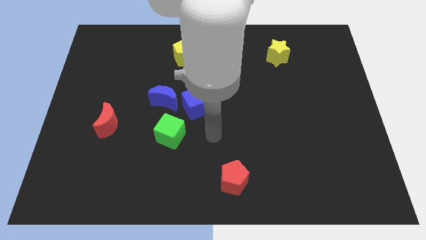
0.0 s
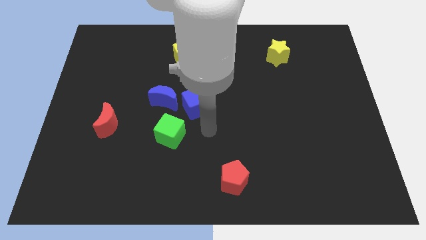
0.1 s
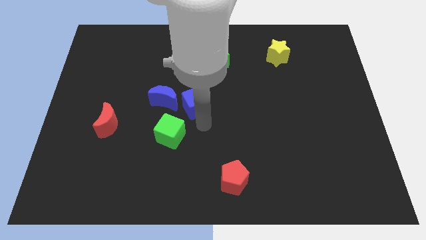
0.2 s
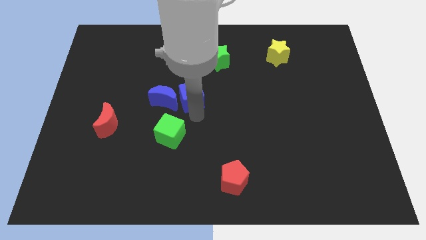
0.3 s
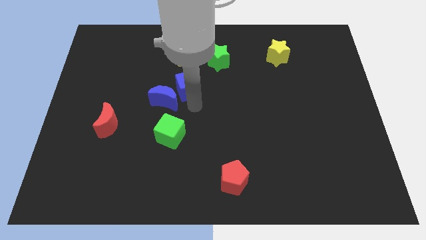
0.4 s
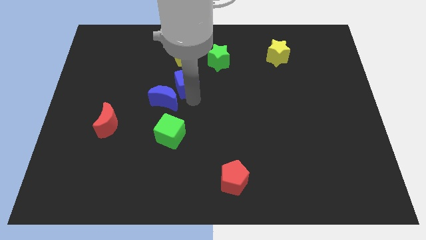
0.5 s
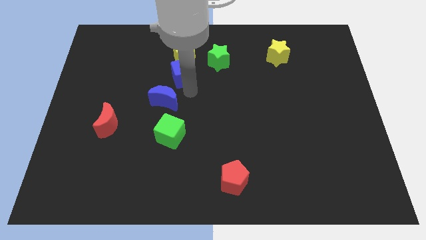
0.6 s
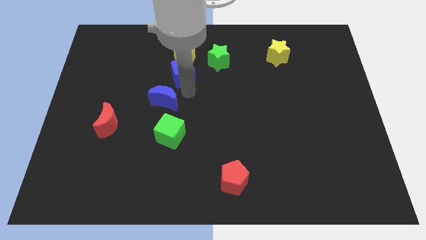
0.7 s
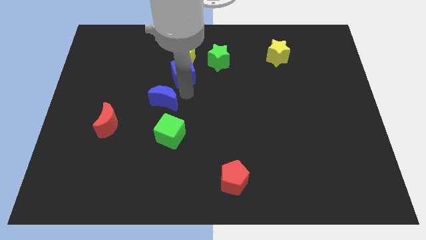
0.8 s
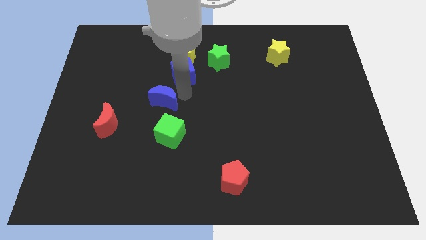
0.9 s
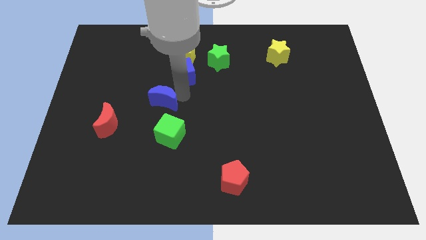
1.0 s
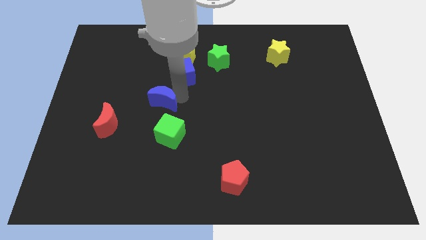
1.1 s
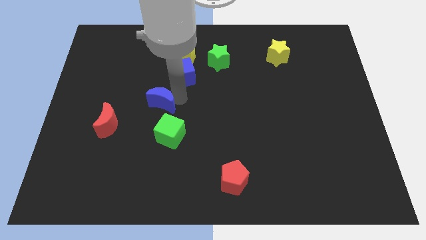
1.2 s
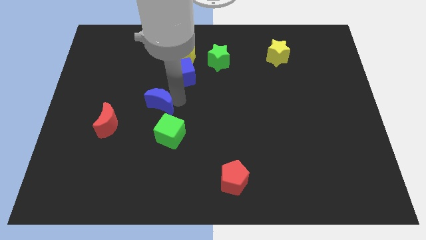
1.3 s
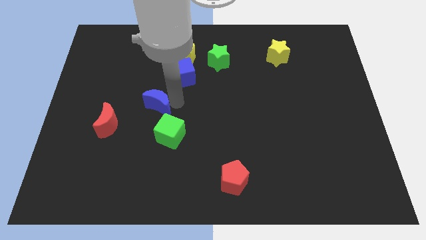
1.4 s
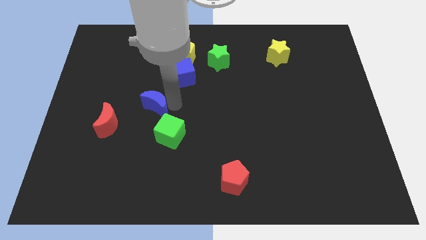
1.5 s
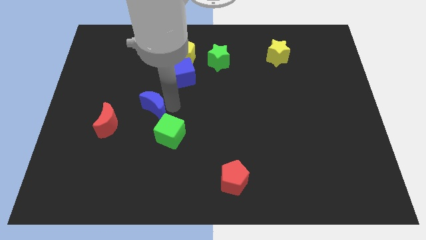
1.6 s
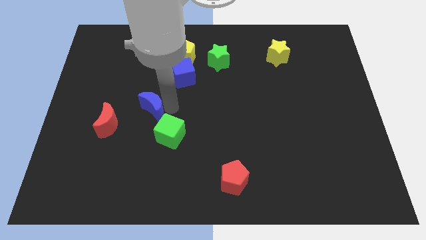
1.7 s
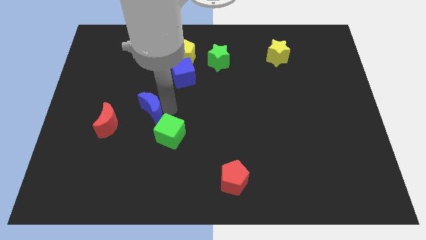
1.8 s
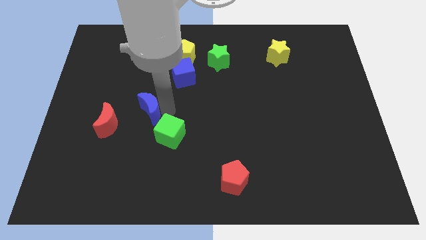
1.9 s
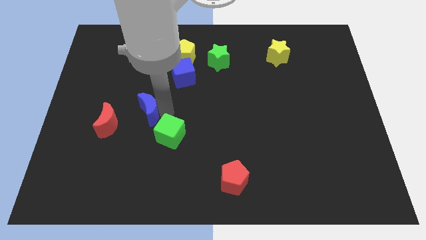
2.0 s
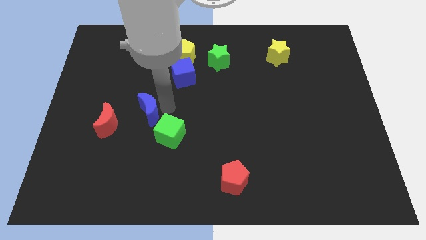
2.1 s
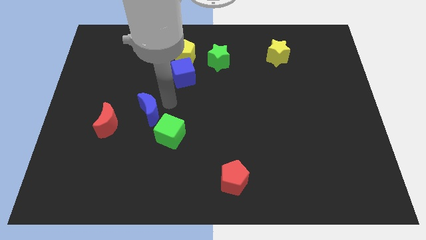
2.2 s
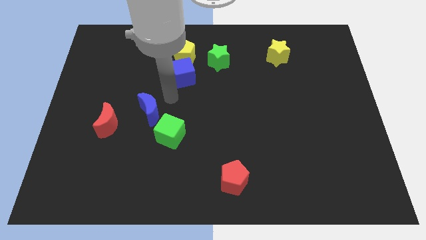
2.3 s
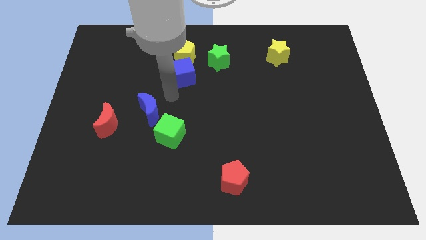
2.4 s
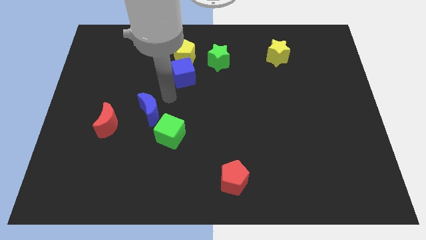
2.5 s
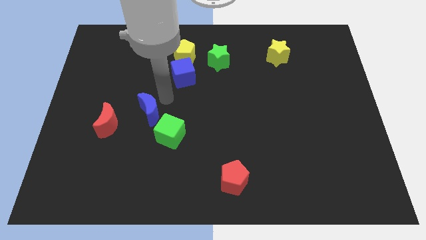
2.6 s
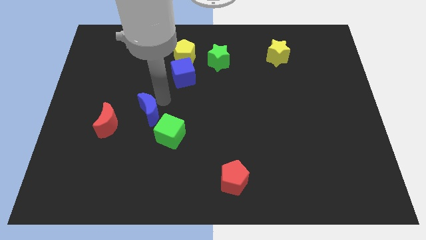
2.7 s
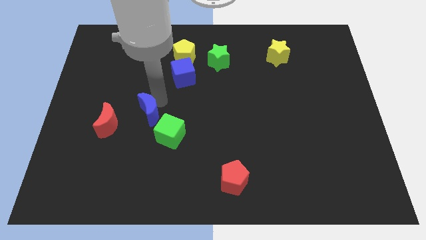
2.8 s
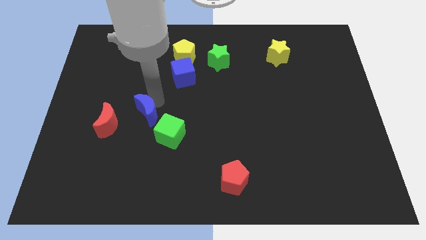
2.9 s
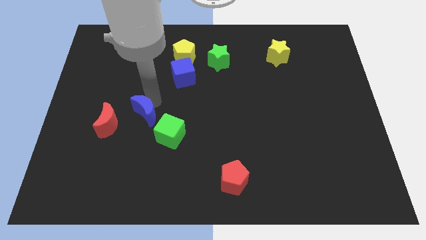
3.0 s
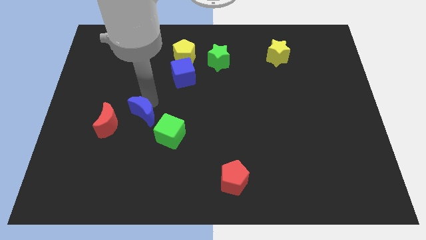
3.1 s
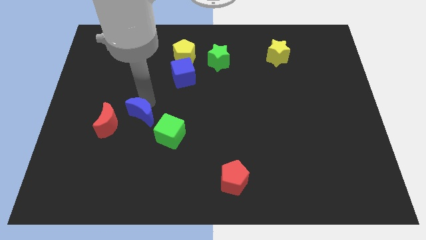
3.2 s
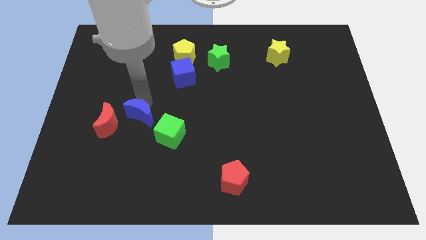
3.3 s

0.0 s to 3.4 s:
push the blue moon downwards and to the left a little bit

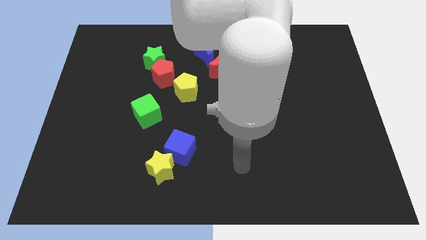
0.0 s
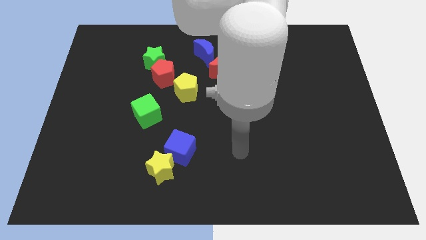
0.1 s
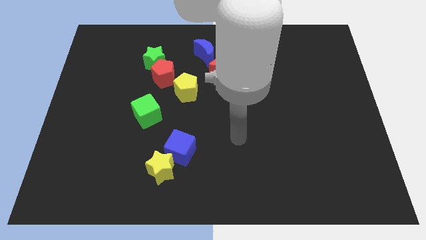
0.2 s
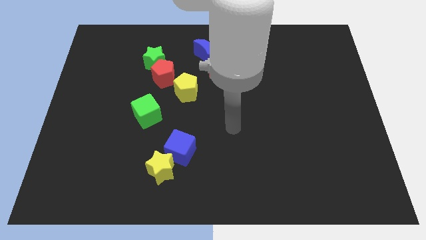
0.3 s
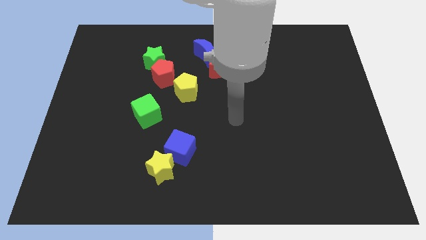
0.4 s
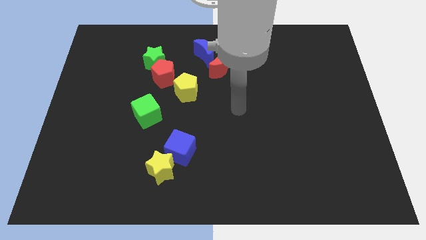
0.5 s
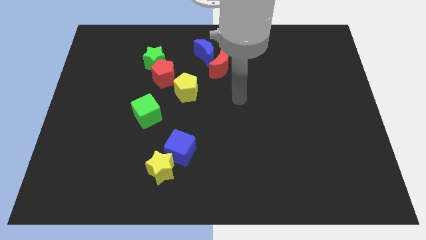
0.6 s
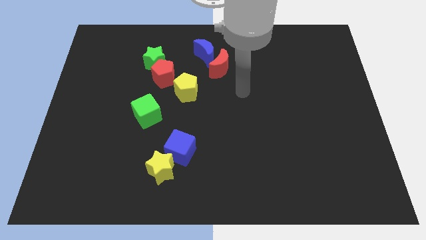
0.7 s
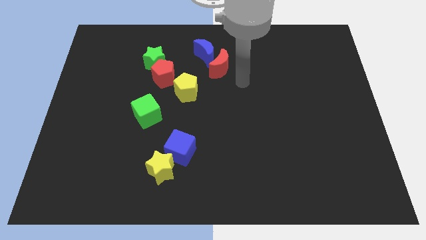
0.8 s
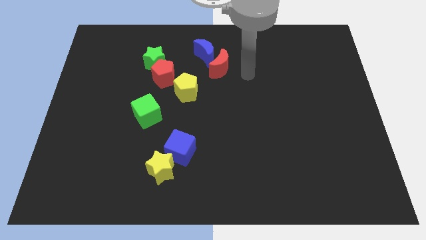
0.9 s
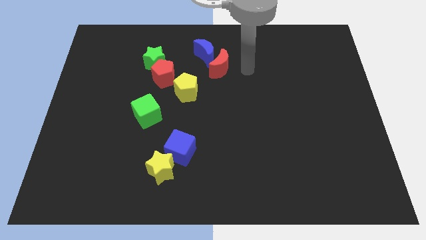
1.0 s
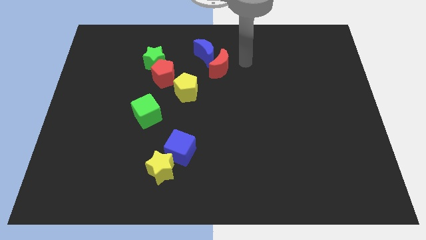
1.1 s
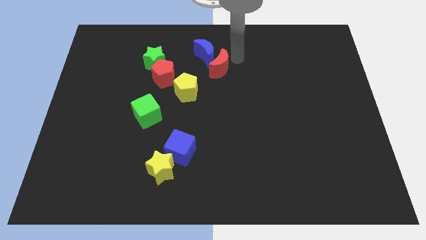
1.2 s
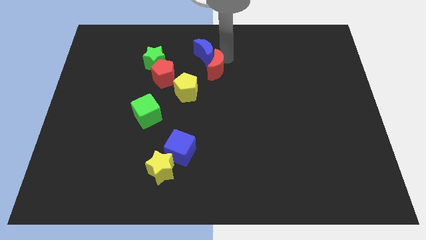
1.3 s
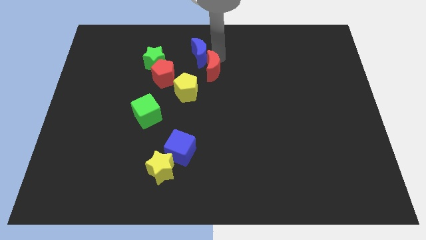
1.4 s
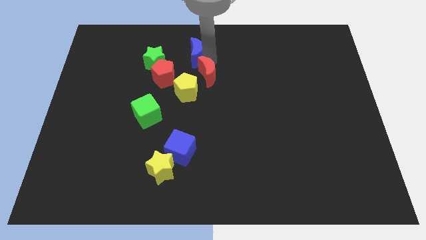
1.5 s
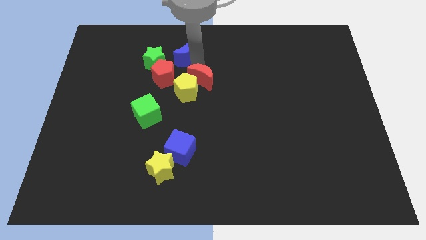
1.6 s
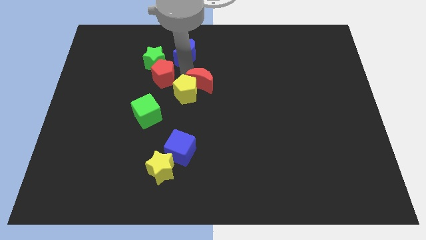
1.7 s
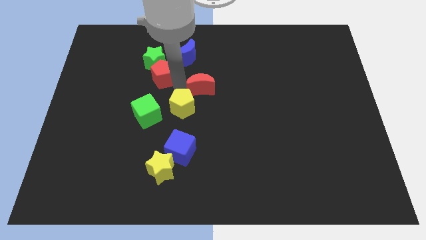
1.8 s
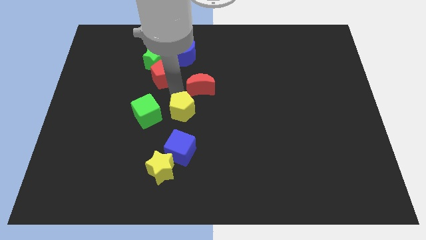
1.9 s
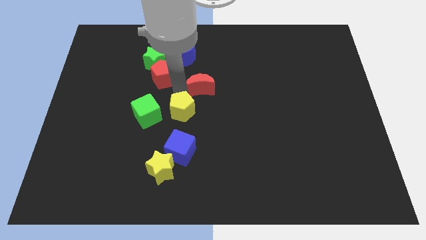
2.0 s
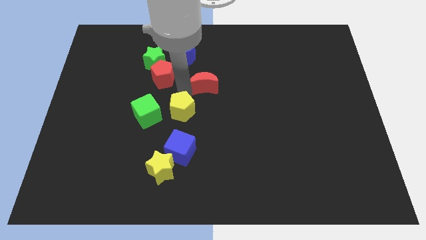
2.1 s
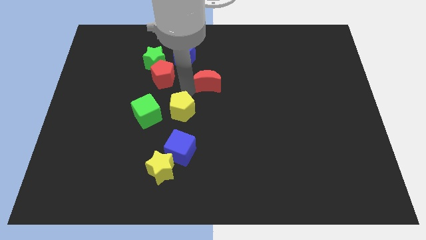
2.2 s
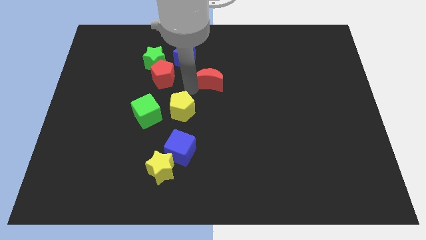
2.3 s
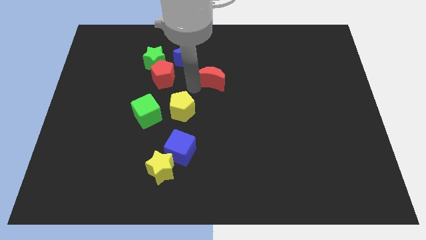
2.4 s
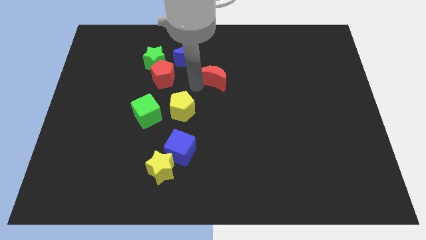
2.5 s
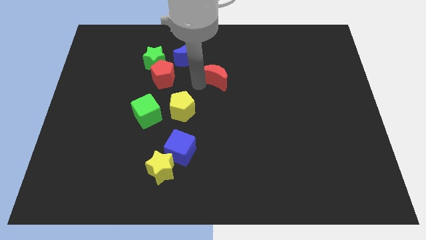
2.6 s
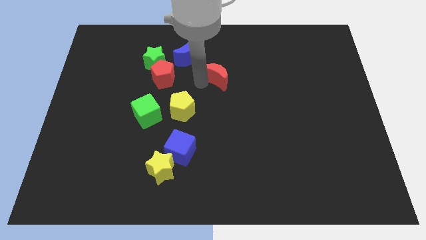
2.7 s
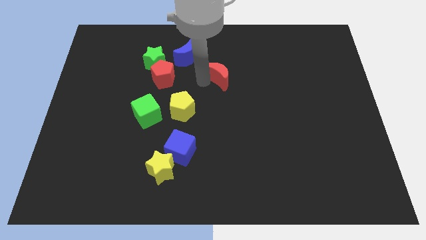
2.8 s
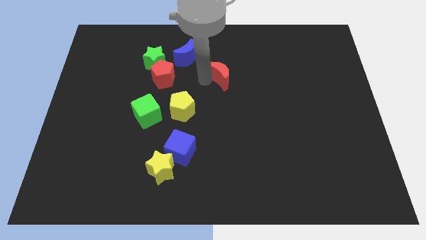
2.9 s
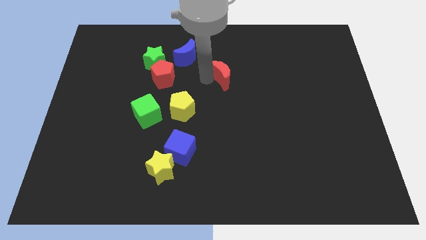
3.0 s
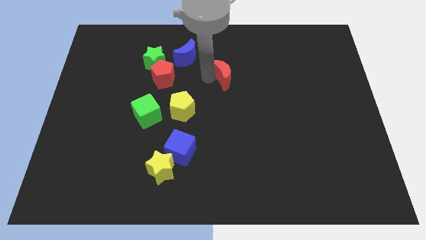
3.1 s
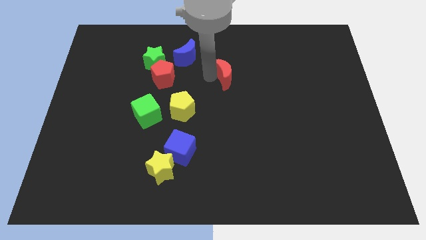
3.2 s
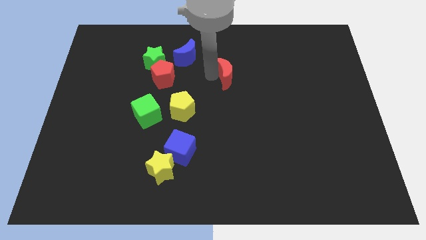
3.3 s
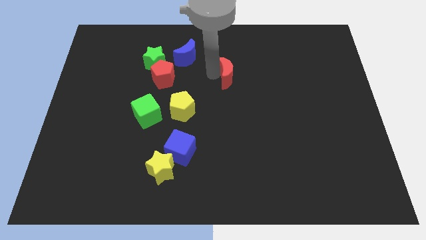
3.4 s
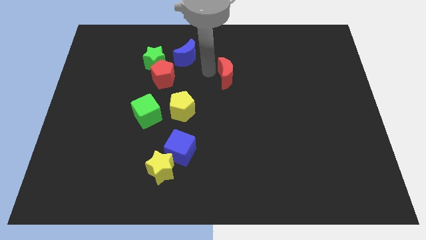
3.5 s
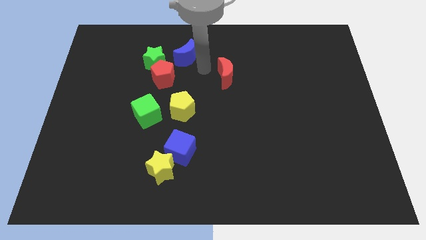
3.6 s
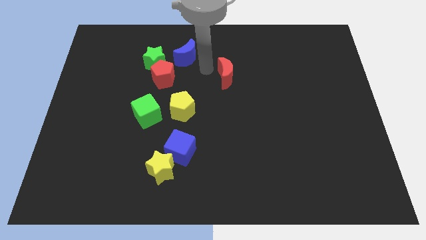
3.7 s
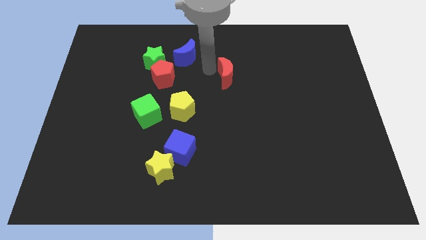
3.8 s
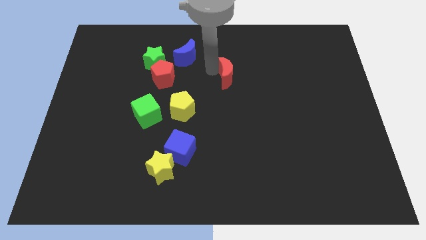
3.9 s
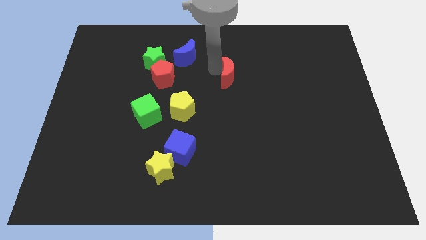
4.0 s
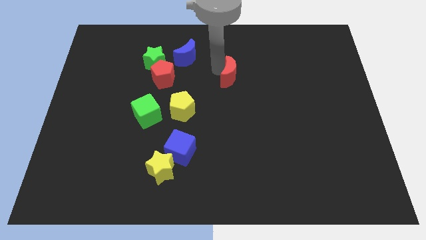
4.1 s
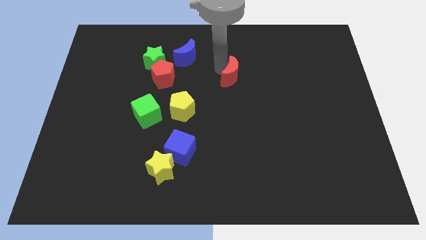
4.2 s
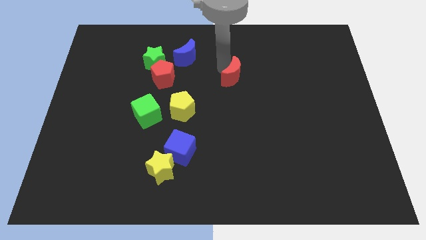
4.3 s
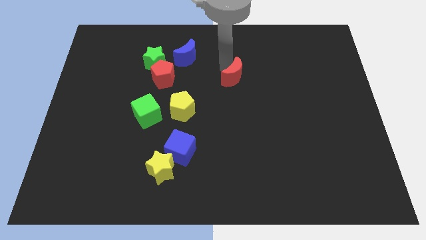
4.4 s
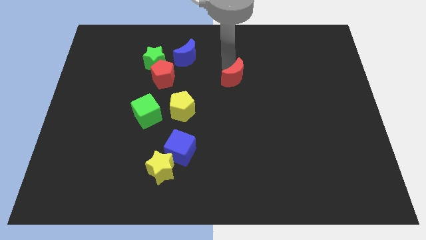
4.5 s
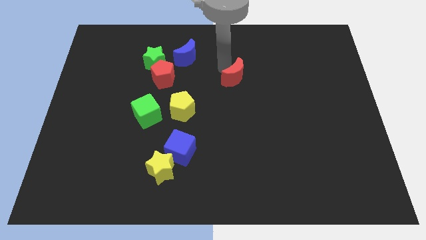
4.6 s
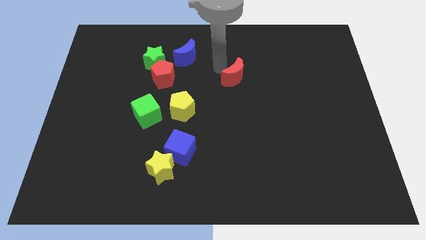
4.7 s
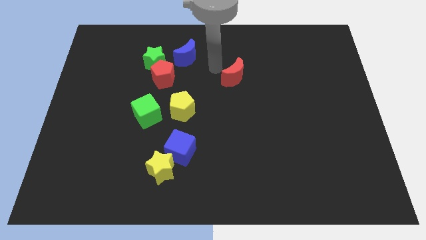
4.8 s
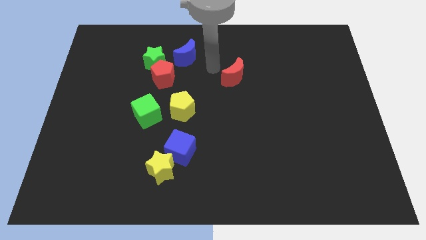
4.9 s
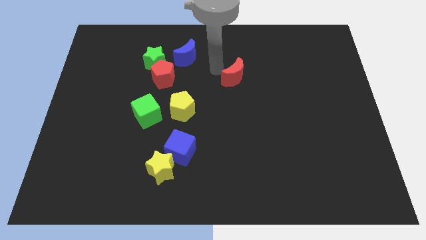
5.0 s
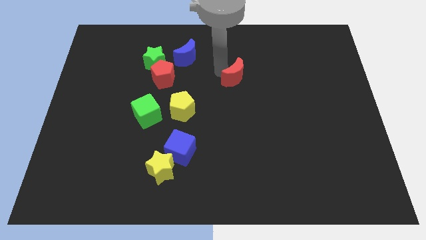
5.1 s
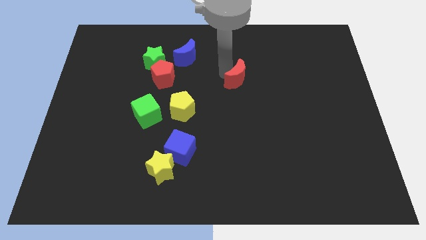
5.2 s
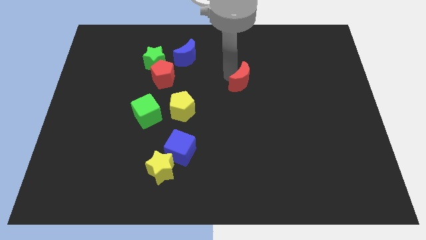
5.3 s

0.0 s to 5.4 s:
move the red moon diagonally down and right slightly
